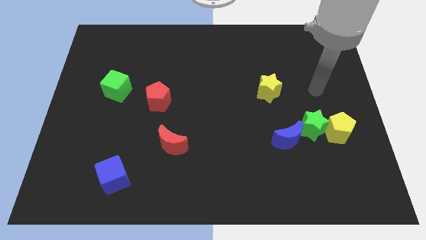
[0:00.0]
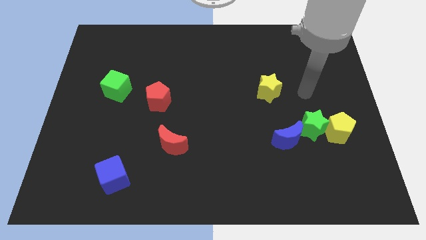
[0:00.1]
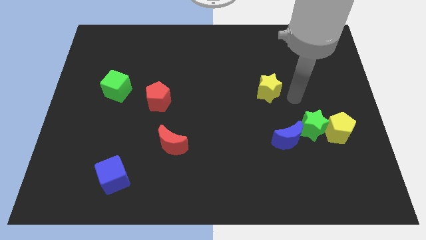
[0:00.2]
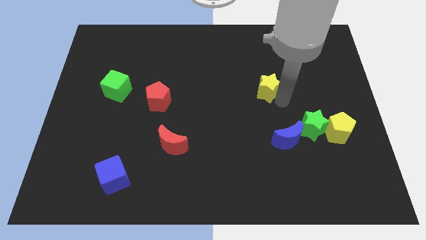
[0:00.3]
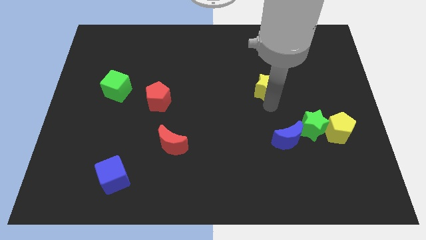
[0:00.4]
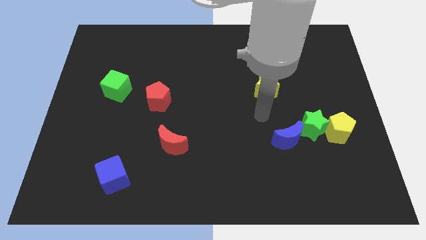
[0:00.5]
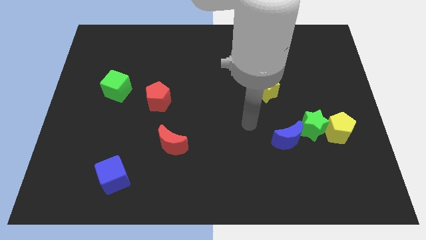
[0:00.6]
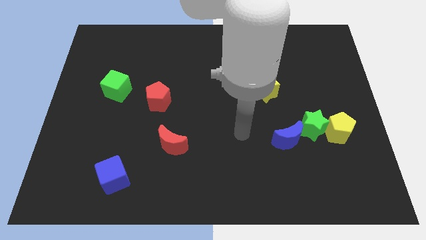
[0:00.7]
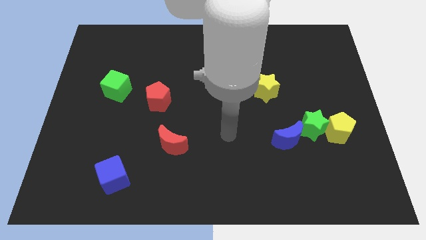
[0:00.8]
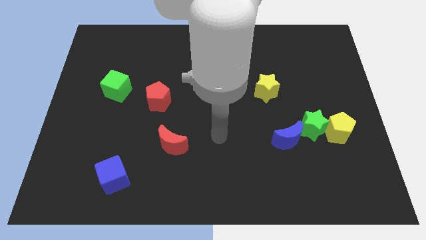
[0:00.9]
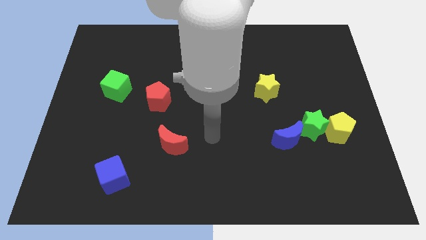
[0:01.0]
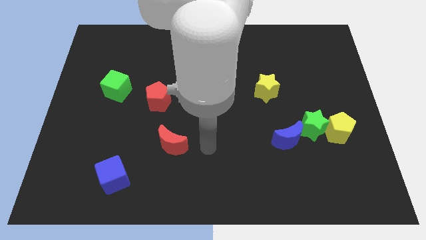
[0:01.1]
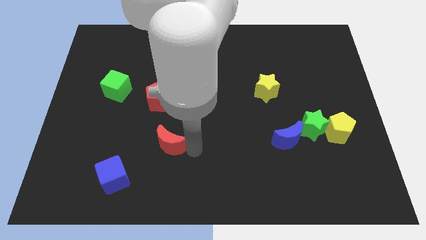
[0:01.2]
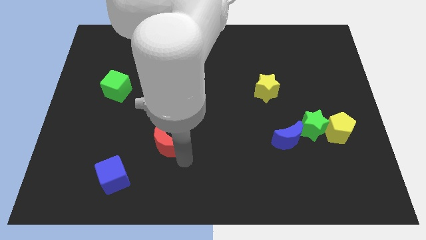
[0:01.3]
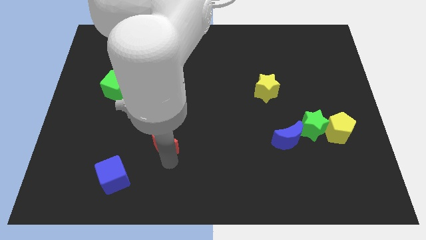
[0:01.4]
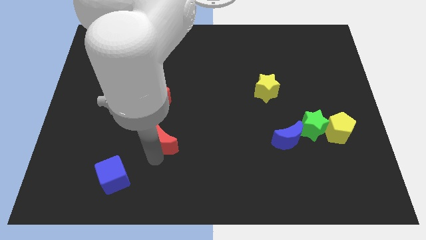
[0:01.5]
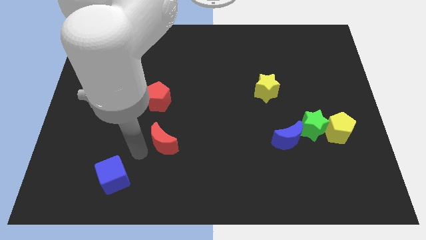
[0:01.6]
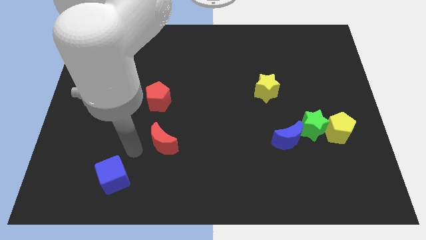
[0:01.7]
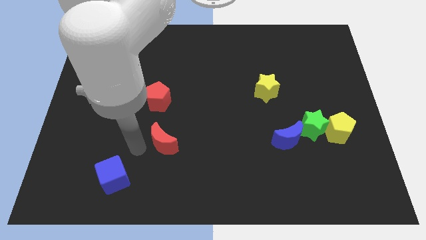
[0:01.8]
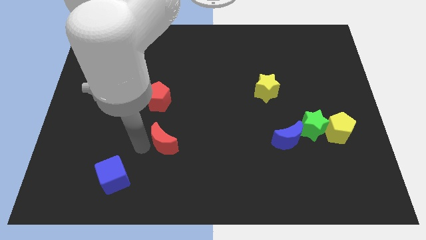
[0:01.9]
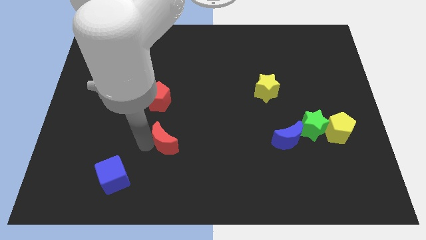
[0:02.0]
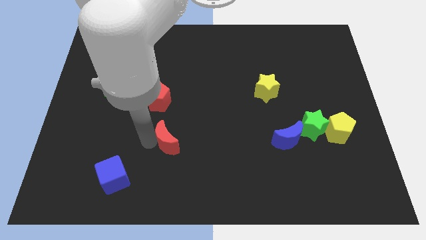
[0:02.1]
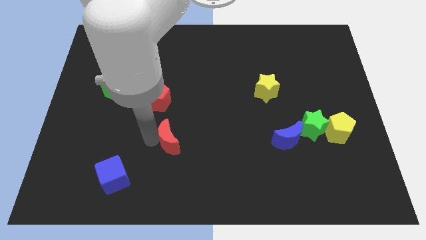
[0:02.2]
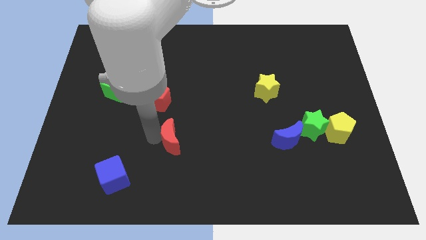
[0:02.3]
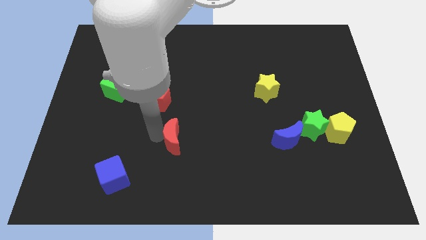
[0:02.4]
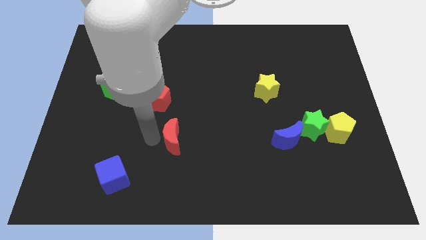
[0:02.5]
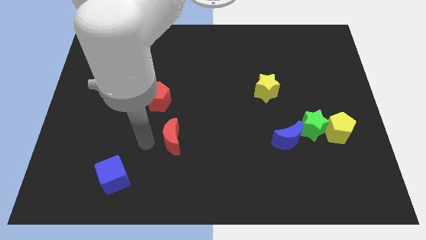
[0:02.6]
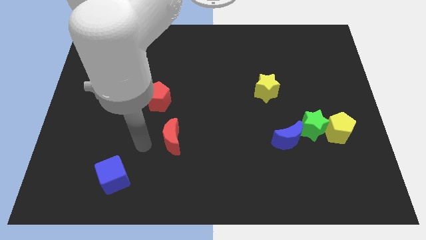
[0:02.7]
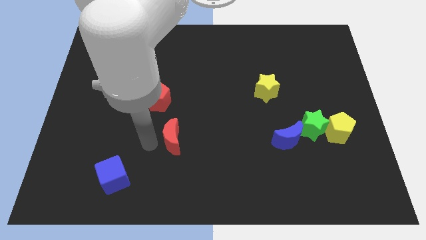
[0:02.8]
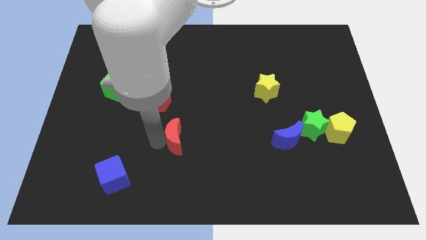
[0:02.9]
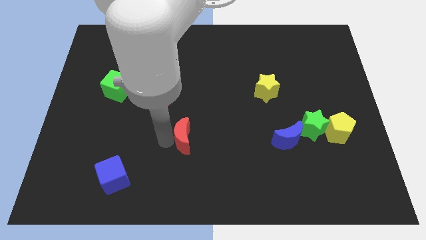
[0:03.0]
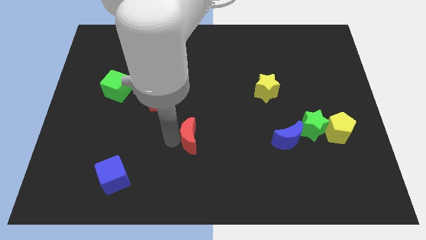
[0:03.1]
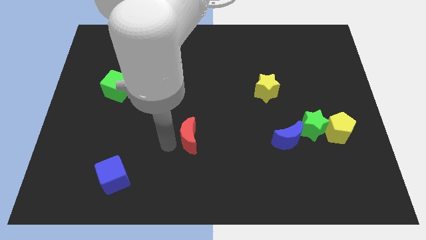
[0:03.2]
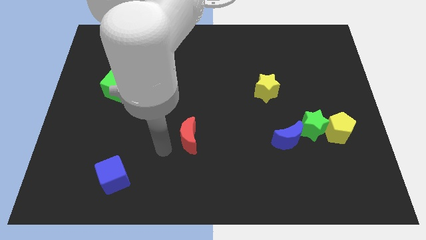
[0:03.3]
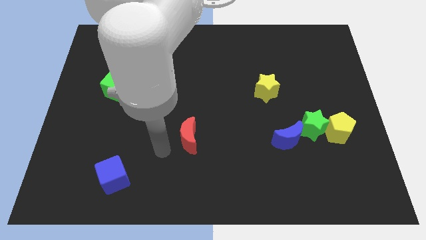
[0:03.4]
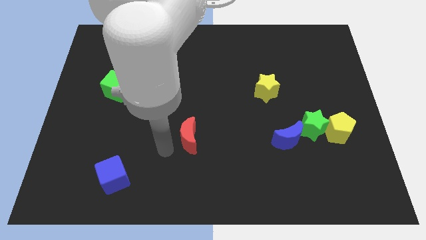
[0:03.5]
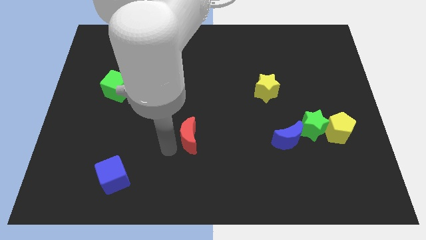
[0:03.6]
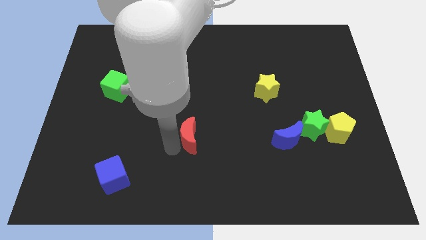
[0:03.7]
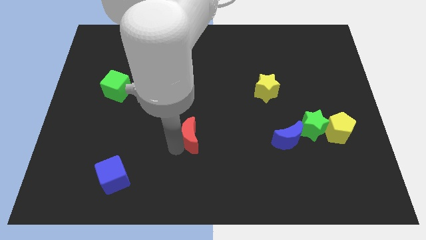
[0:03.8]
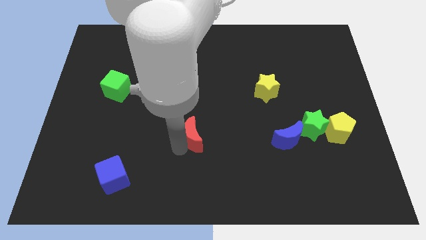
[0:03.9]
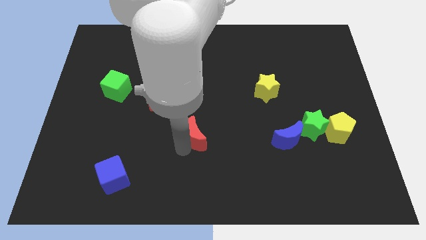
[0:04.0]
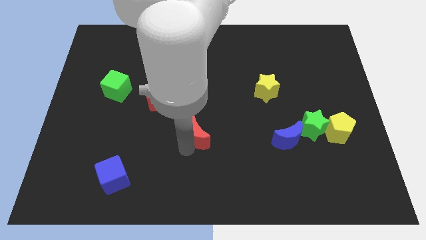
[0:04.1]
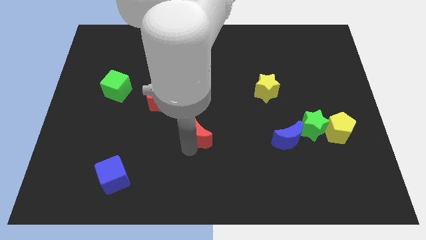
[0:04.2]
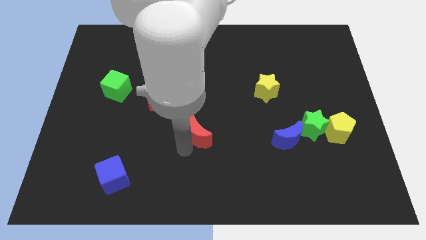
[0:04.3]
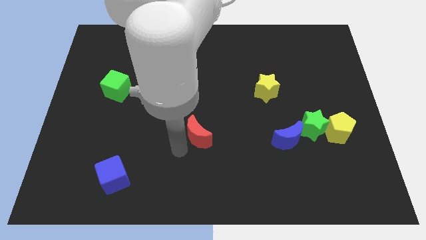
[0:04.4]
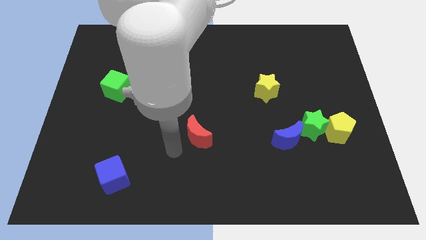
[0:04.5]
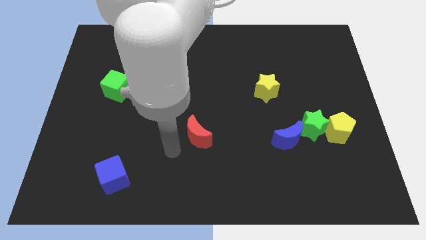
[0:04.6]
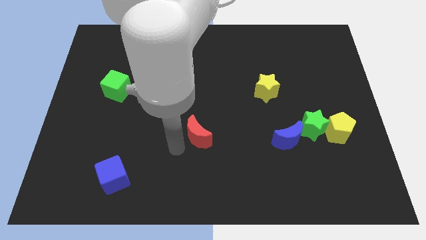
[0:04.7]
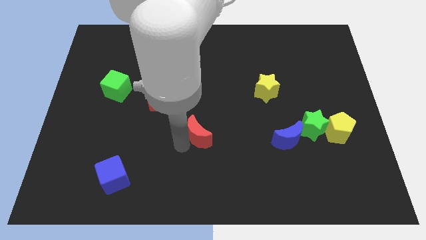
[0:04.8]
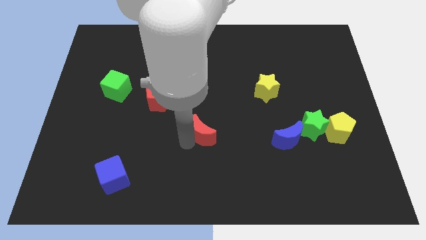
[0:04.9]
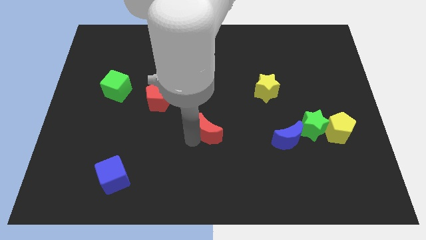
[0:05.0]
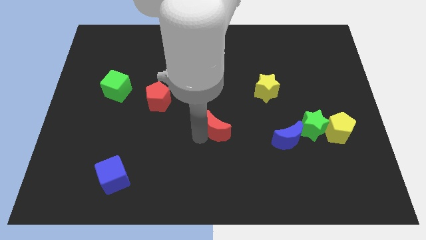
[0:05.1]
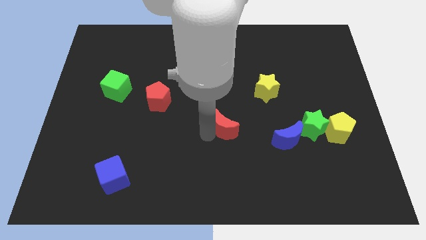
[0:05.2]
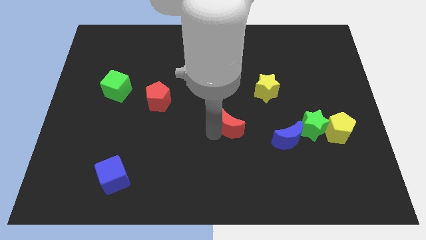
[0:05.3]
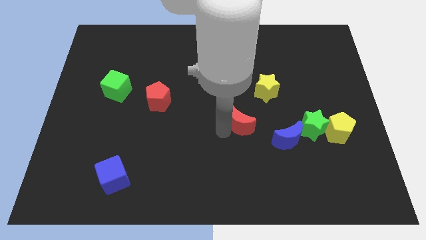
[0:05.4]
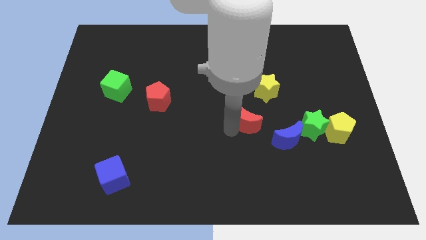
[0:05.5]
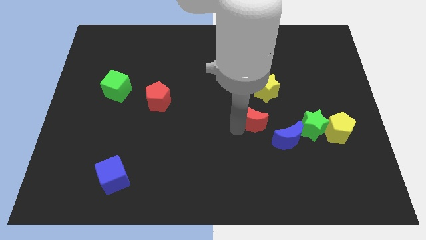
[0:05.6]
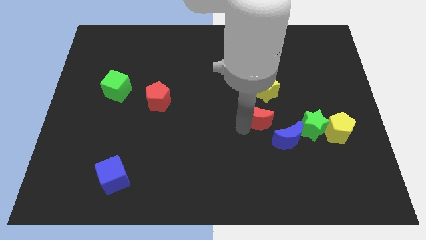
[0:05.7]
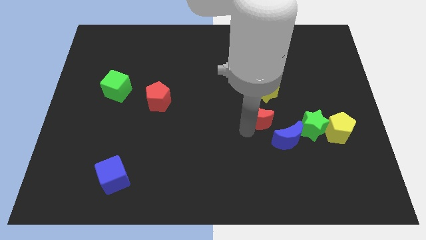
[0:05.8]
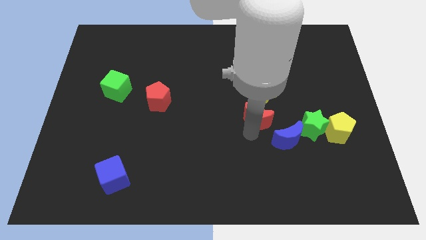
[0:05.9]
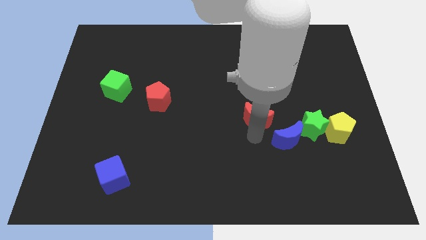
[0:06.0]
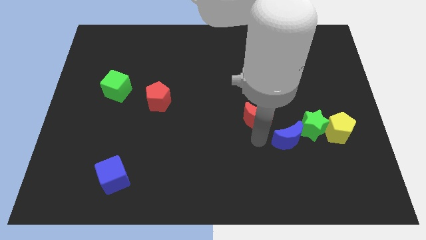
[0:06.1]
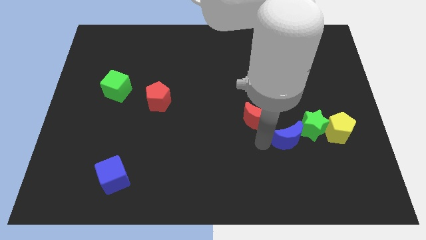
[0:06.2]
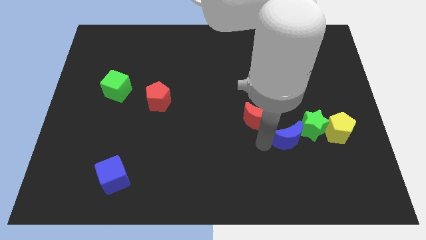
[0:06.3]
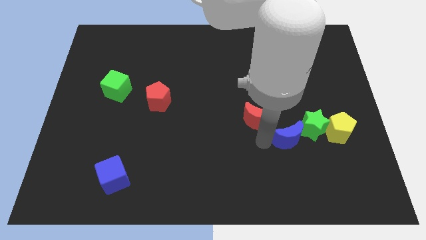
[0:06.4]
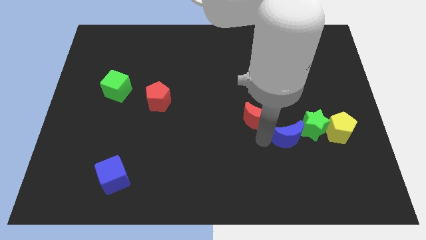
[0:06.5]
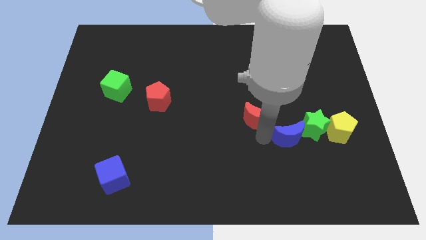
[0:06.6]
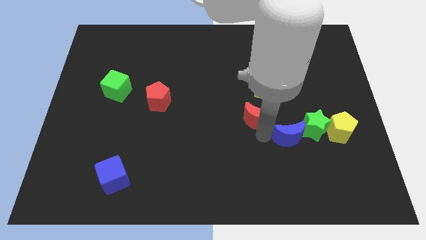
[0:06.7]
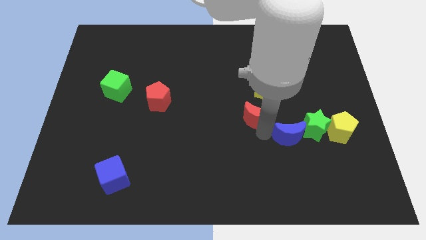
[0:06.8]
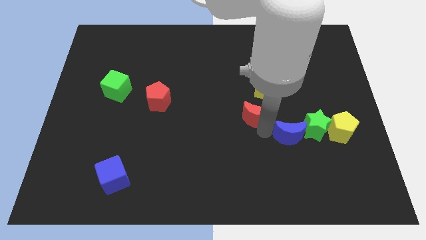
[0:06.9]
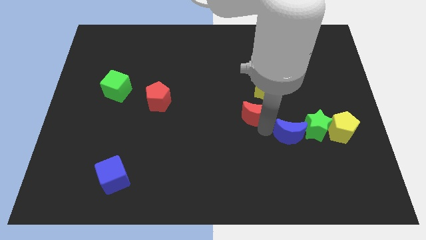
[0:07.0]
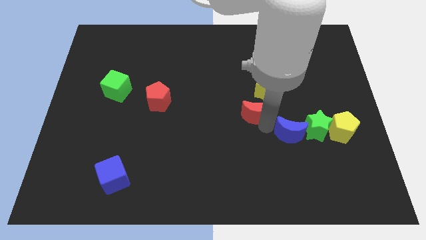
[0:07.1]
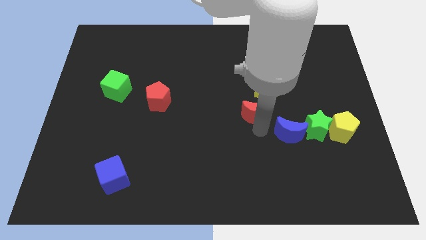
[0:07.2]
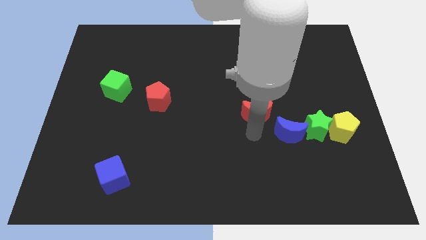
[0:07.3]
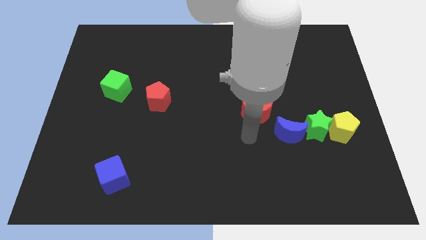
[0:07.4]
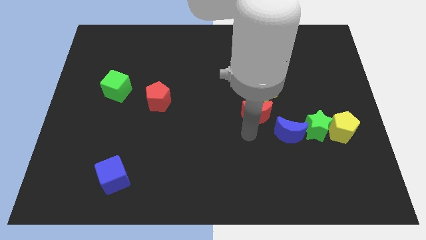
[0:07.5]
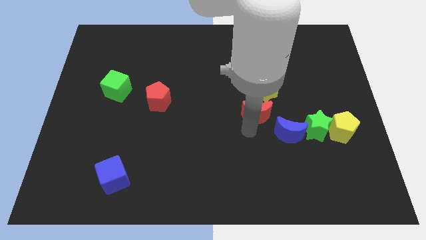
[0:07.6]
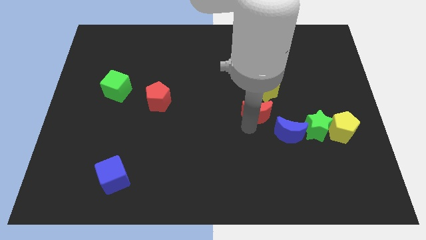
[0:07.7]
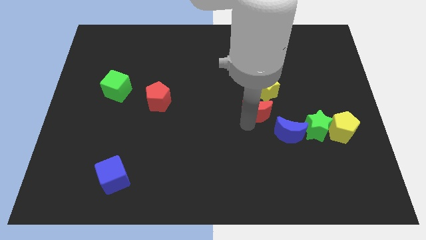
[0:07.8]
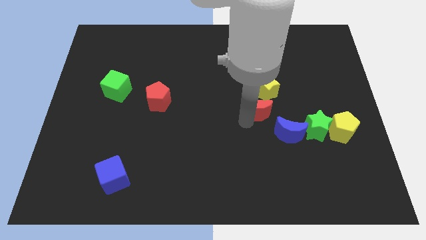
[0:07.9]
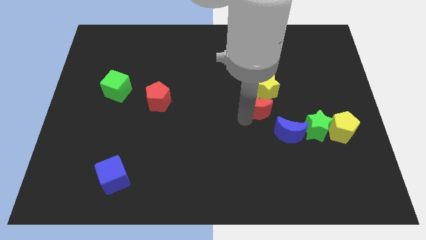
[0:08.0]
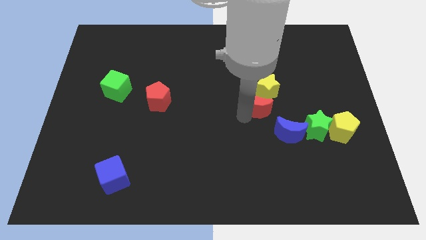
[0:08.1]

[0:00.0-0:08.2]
move the red moon towards the yellow star
